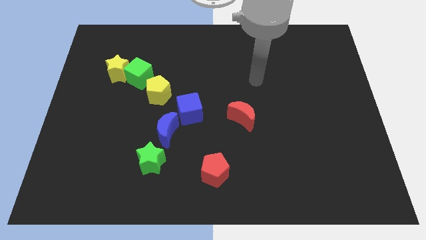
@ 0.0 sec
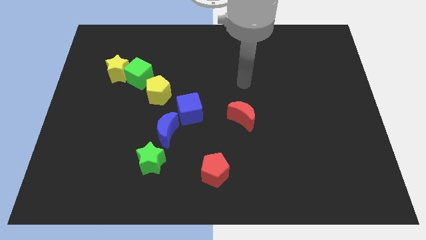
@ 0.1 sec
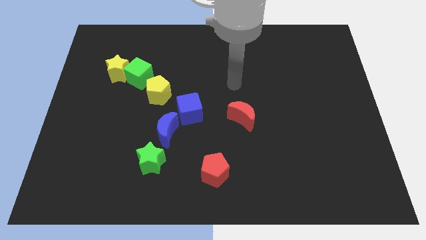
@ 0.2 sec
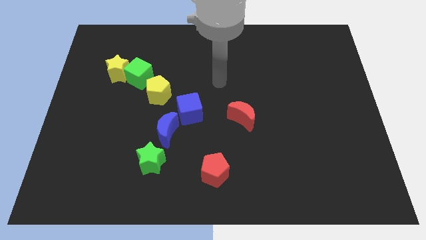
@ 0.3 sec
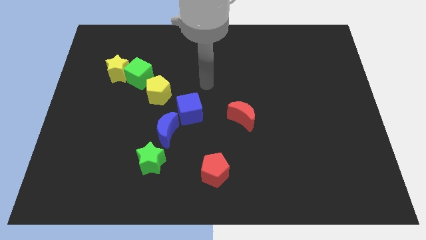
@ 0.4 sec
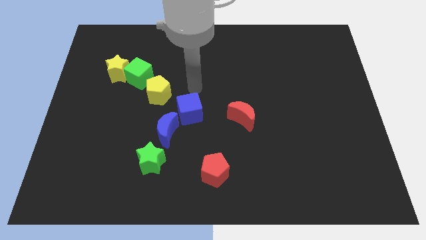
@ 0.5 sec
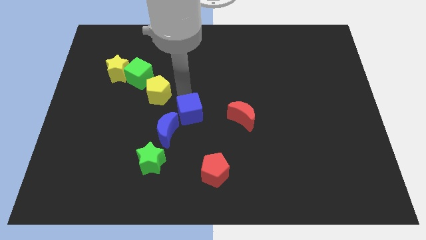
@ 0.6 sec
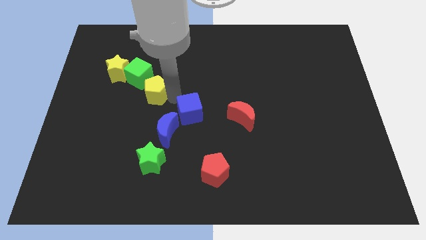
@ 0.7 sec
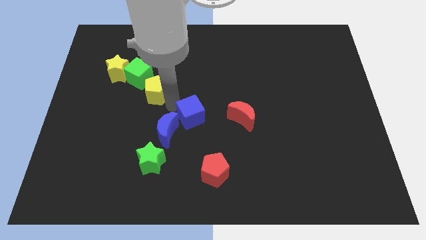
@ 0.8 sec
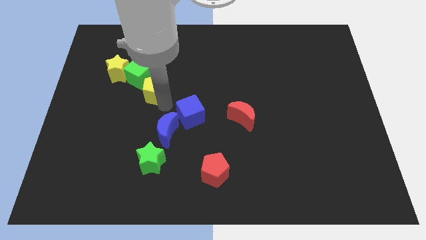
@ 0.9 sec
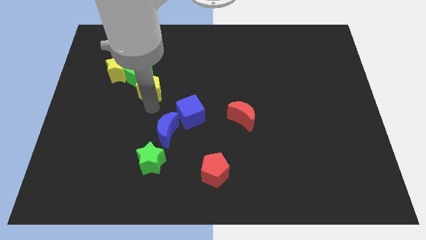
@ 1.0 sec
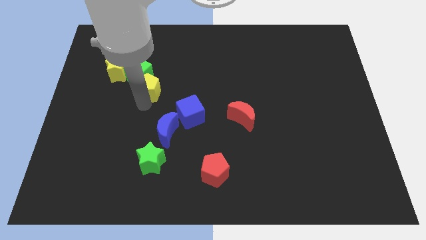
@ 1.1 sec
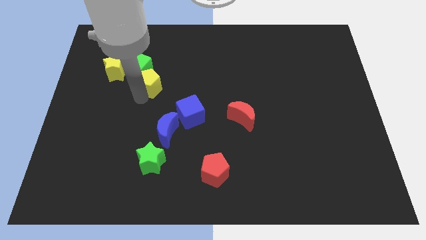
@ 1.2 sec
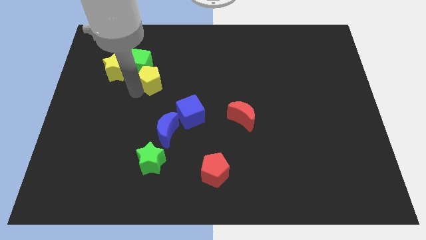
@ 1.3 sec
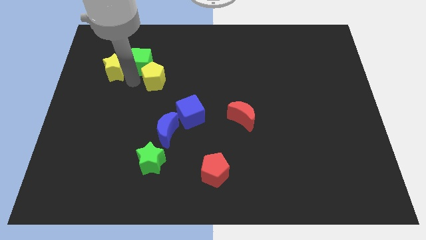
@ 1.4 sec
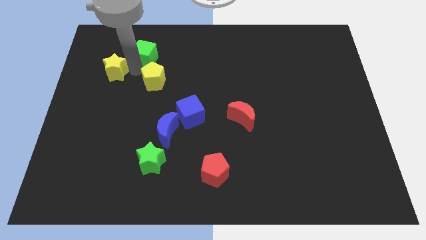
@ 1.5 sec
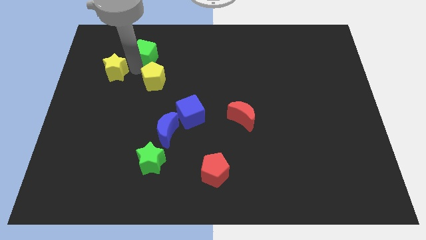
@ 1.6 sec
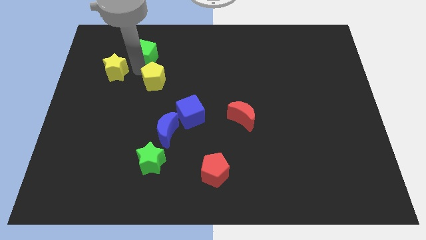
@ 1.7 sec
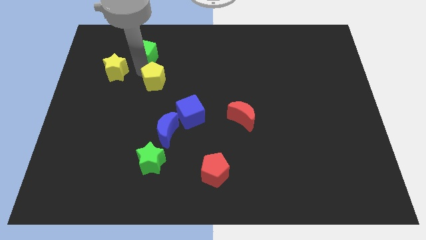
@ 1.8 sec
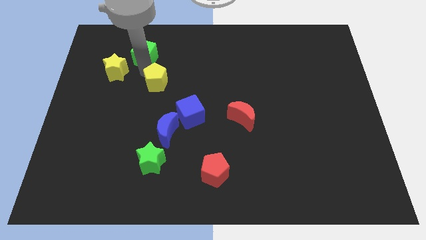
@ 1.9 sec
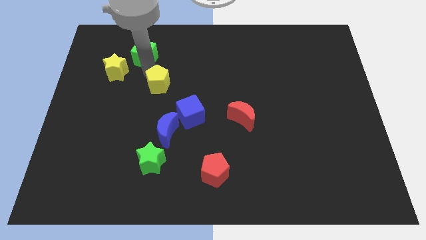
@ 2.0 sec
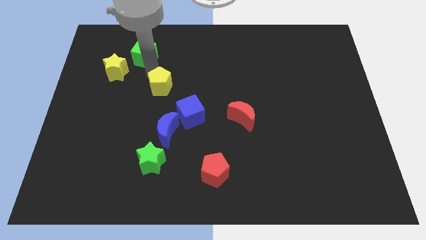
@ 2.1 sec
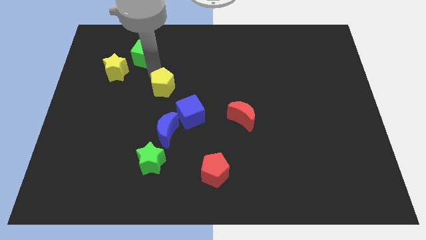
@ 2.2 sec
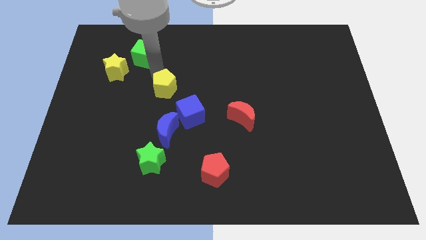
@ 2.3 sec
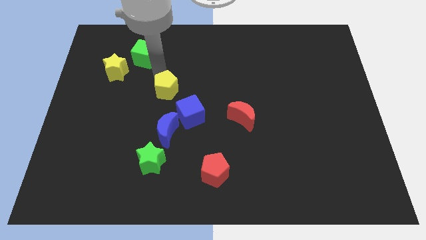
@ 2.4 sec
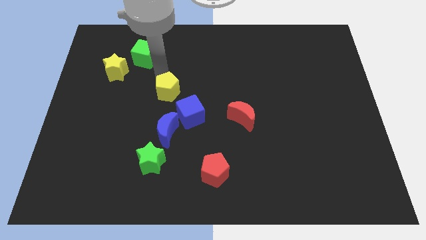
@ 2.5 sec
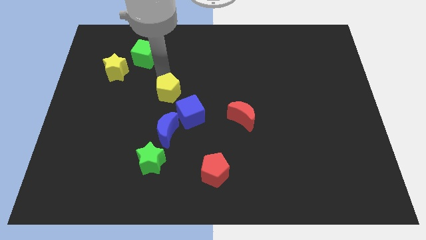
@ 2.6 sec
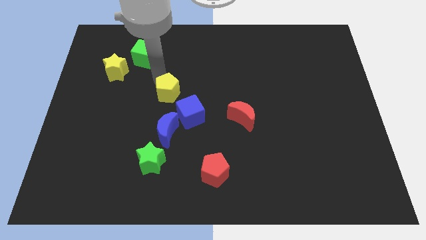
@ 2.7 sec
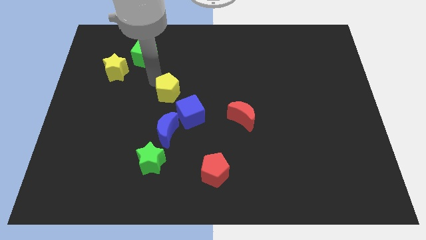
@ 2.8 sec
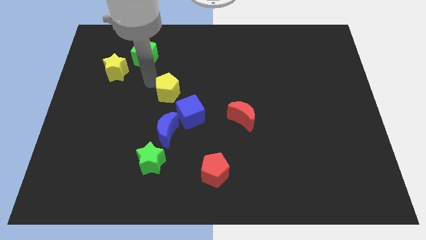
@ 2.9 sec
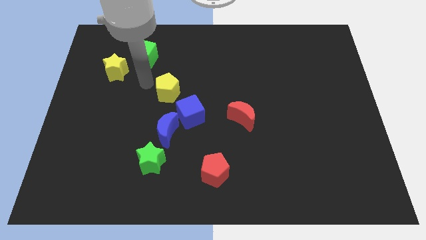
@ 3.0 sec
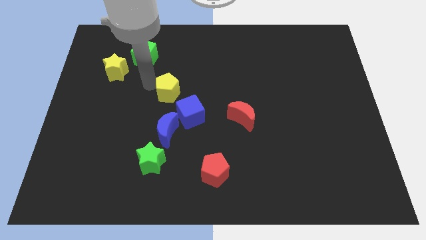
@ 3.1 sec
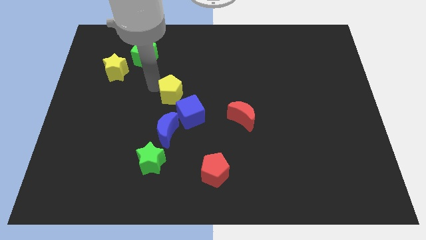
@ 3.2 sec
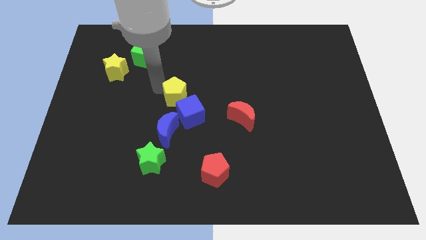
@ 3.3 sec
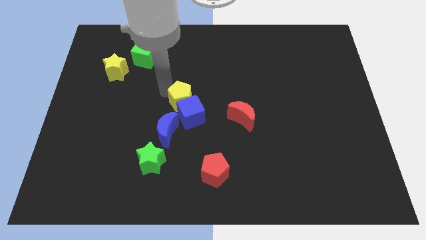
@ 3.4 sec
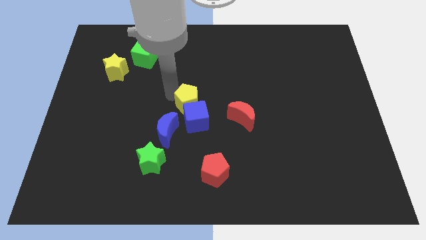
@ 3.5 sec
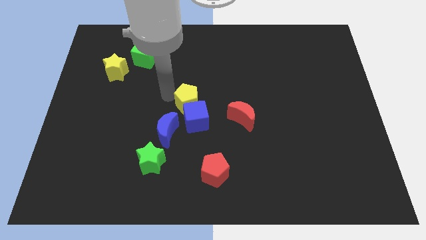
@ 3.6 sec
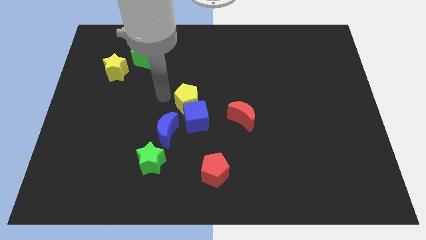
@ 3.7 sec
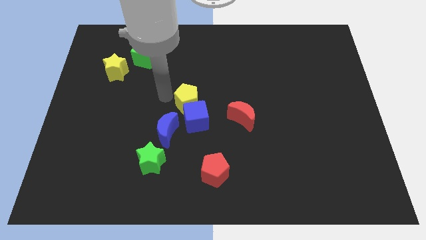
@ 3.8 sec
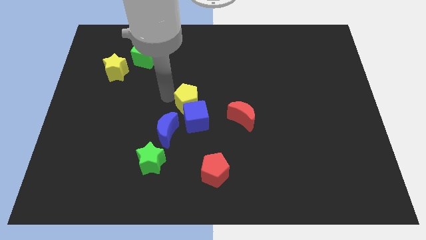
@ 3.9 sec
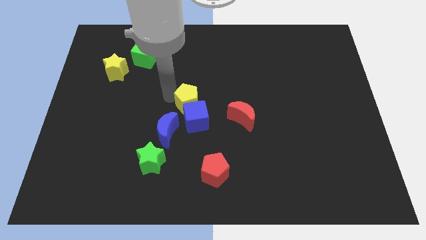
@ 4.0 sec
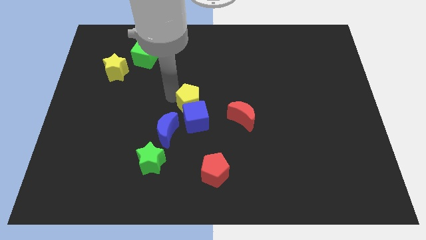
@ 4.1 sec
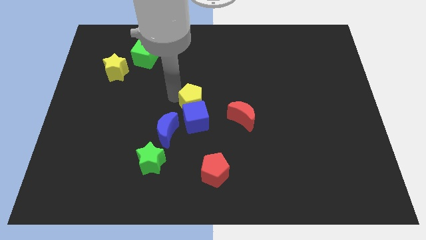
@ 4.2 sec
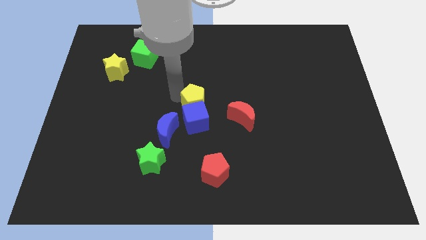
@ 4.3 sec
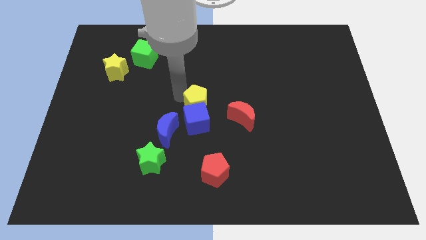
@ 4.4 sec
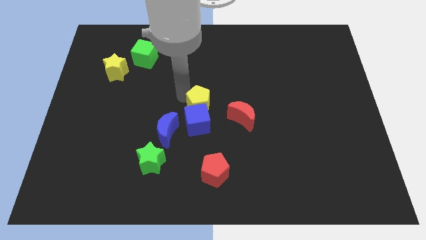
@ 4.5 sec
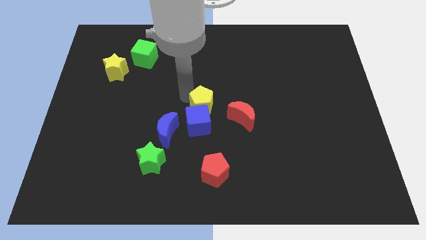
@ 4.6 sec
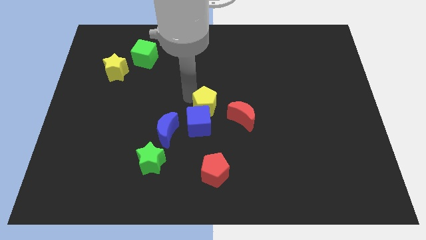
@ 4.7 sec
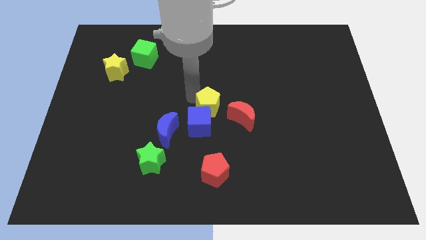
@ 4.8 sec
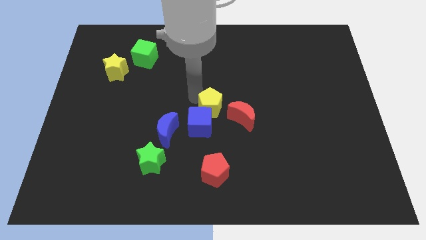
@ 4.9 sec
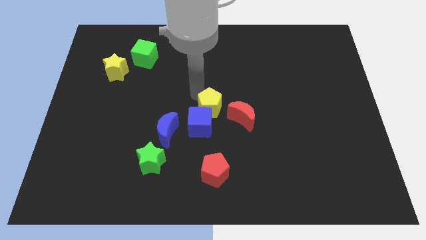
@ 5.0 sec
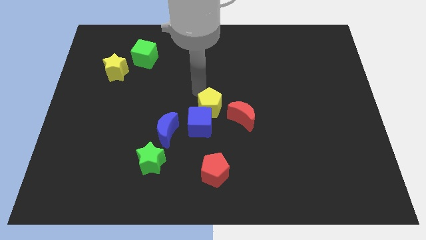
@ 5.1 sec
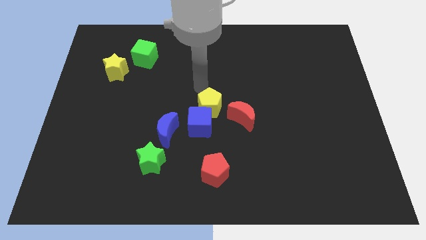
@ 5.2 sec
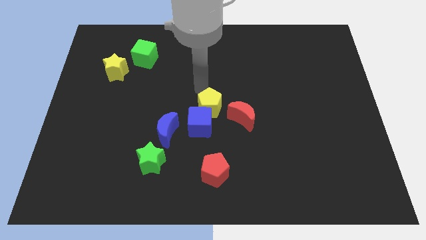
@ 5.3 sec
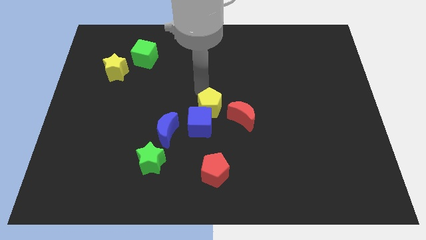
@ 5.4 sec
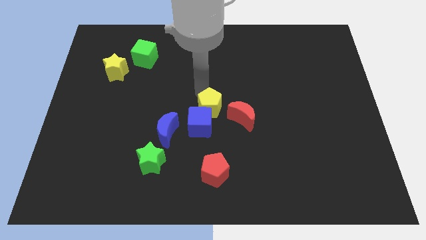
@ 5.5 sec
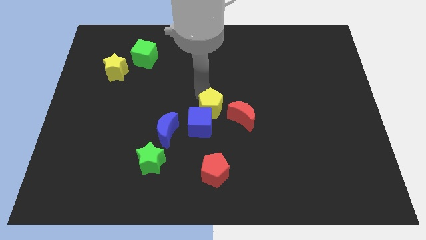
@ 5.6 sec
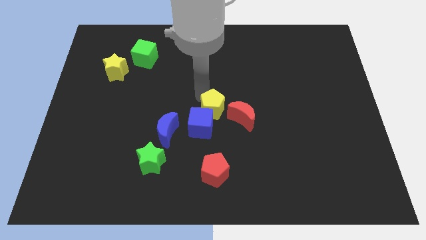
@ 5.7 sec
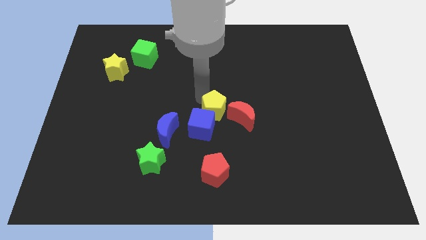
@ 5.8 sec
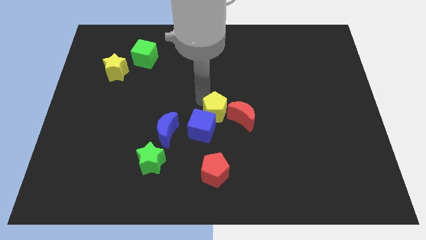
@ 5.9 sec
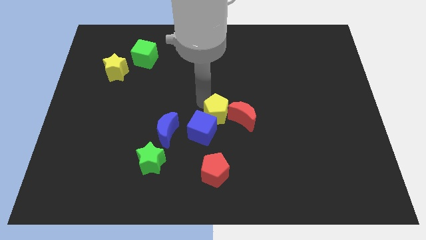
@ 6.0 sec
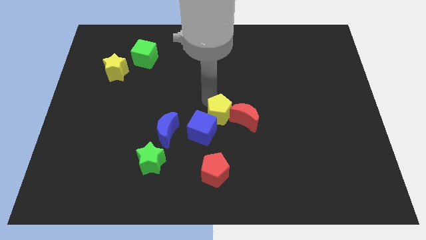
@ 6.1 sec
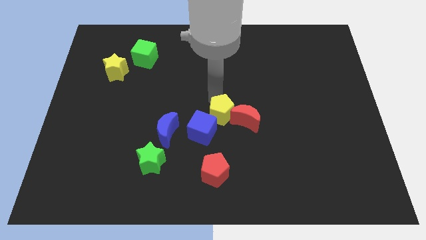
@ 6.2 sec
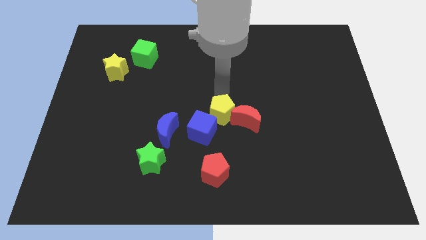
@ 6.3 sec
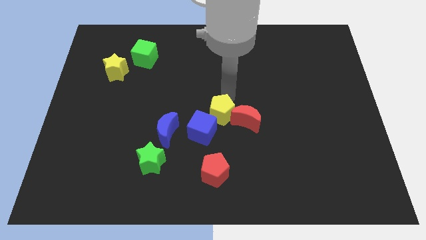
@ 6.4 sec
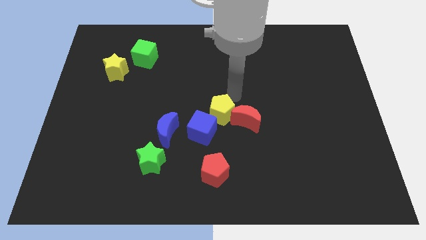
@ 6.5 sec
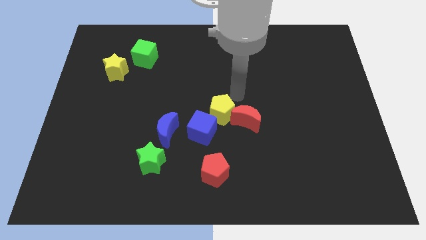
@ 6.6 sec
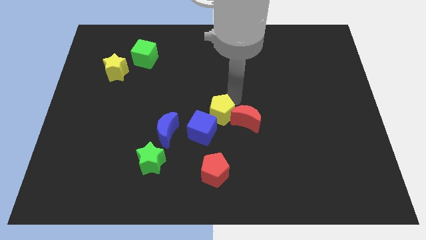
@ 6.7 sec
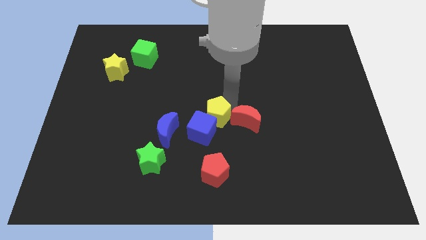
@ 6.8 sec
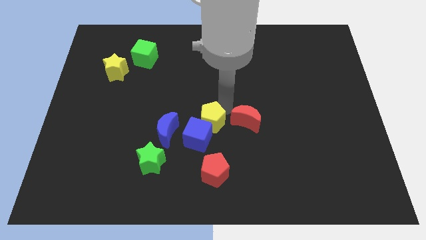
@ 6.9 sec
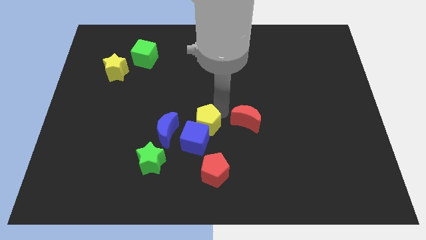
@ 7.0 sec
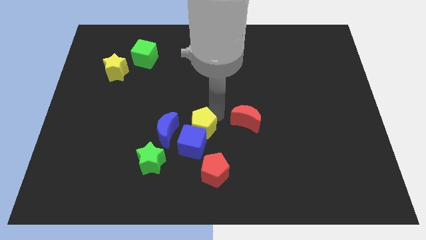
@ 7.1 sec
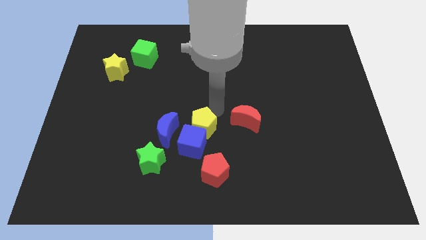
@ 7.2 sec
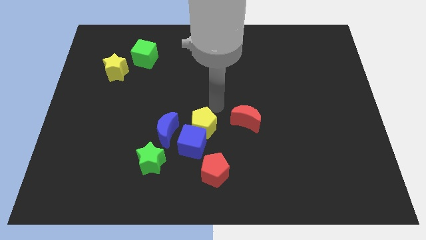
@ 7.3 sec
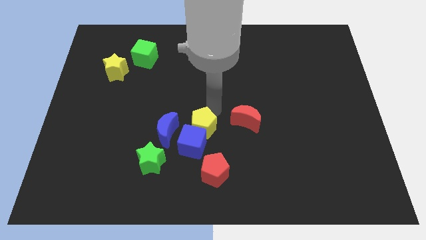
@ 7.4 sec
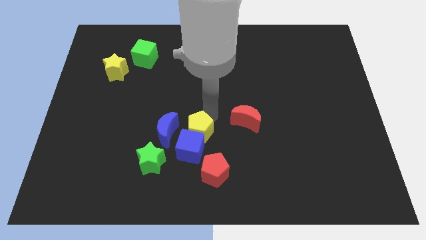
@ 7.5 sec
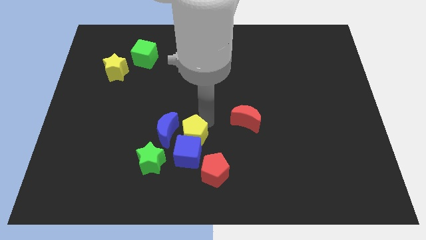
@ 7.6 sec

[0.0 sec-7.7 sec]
push the yellow pentagon to the bottom right side of the blue moon
